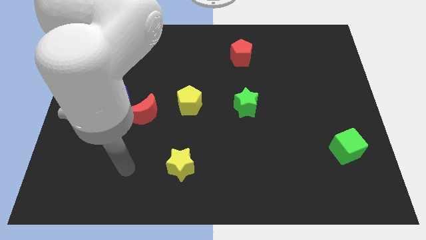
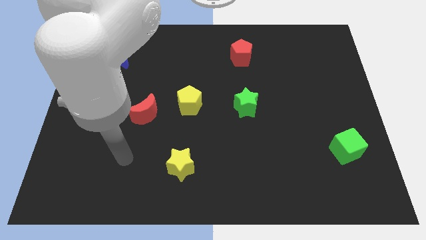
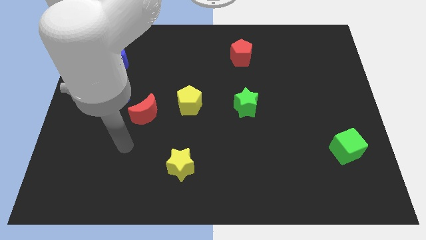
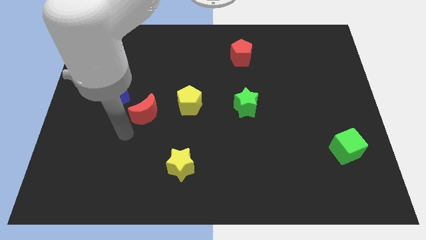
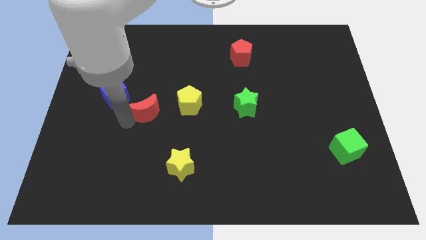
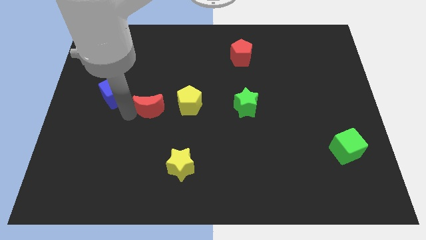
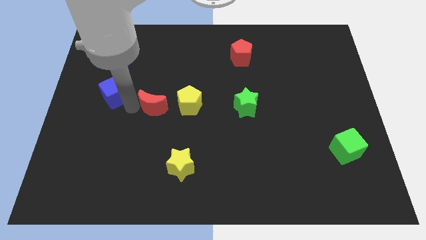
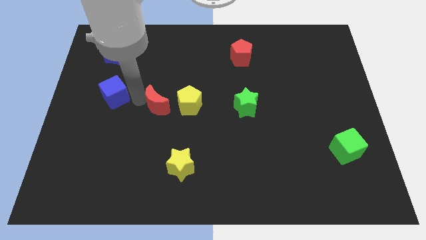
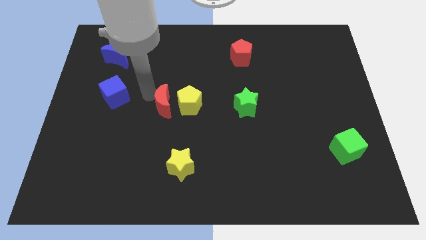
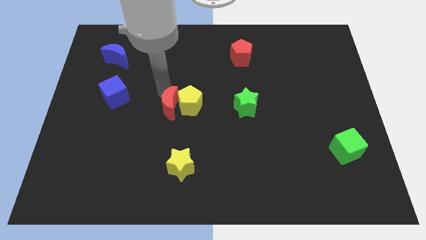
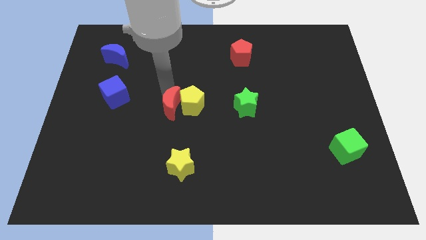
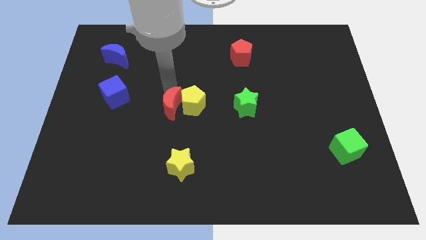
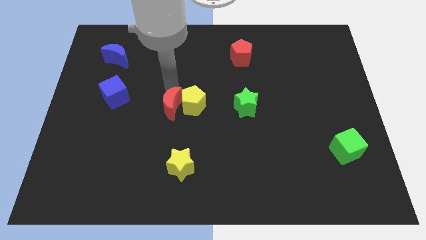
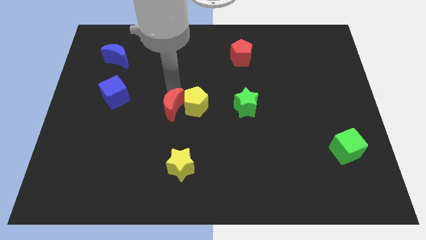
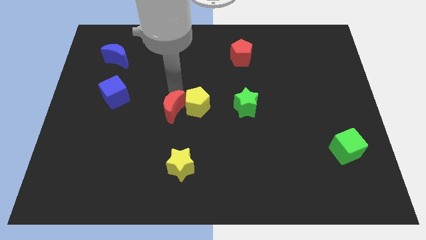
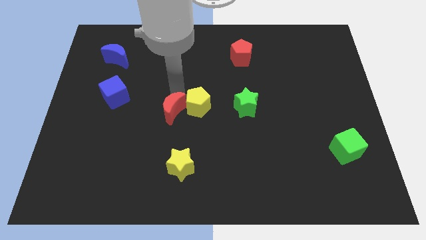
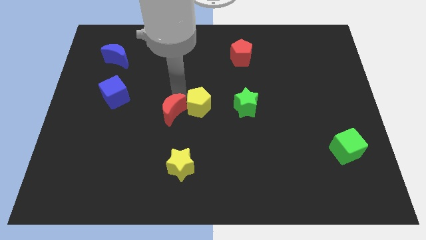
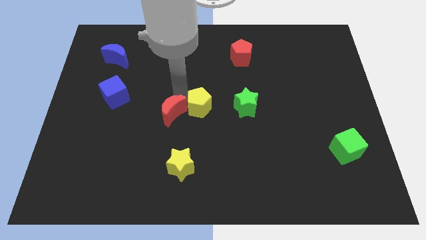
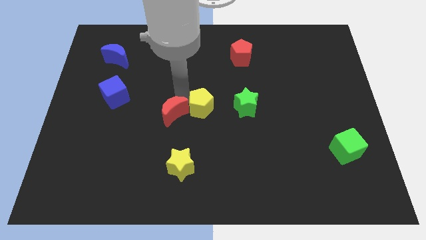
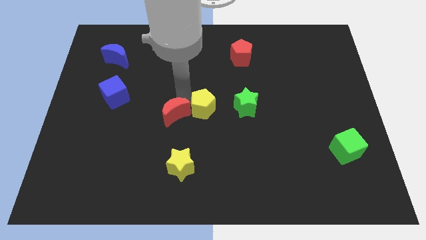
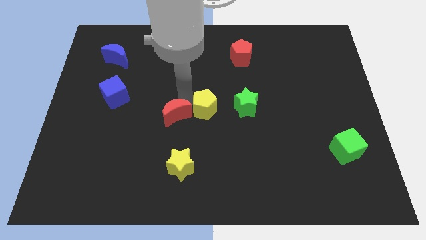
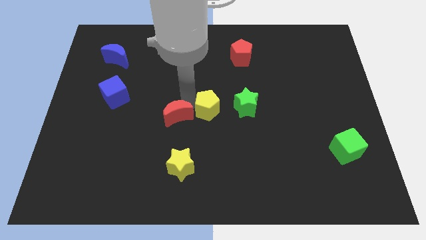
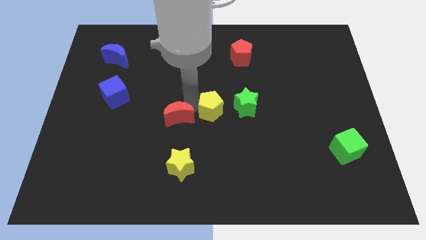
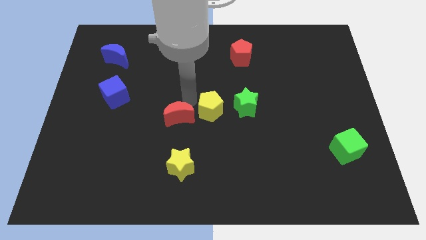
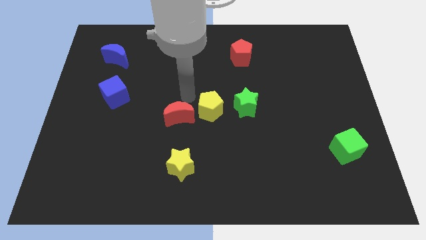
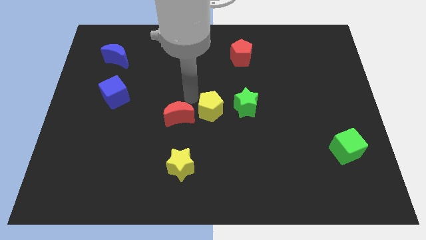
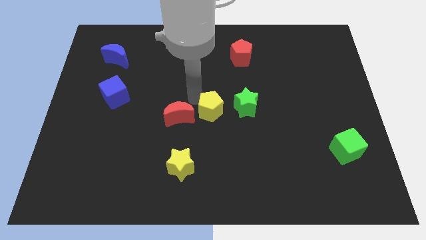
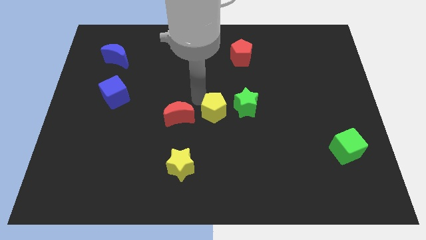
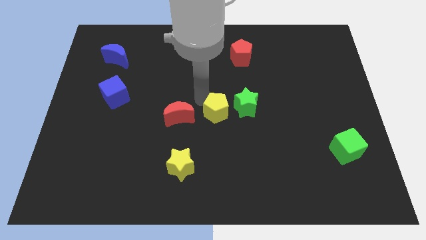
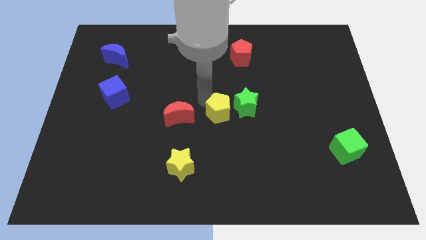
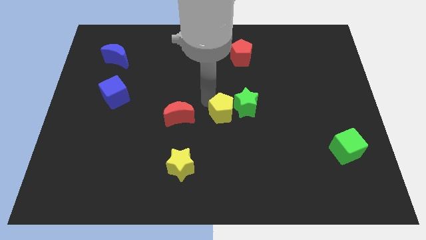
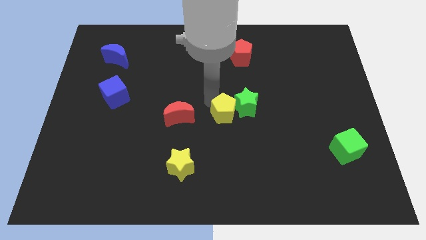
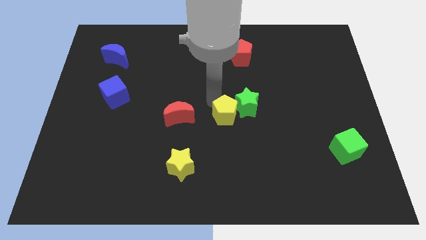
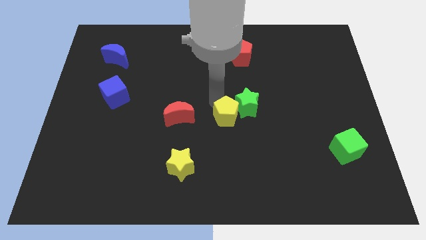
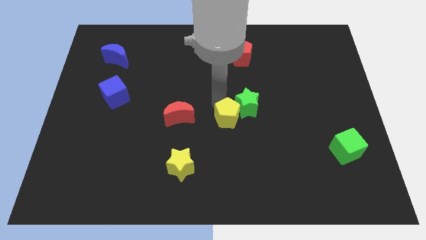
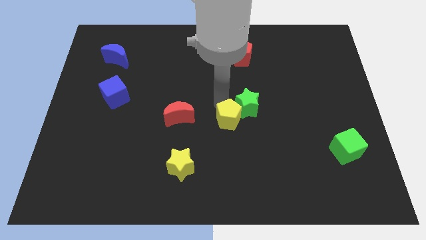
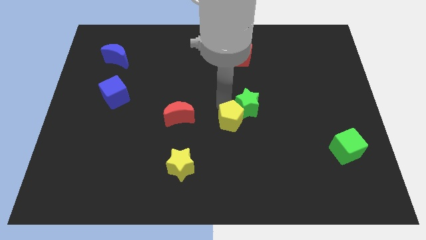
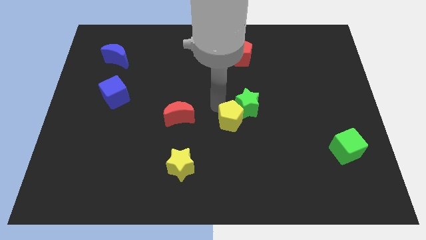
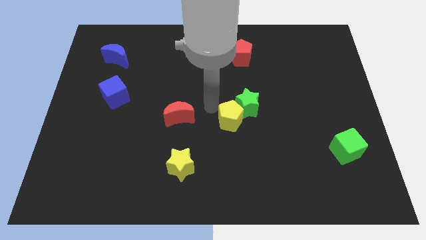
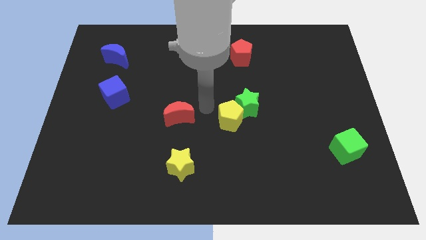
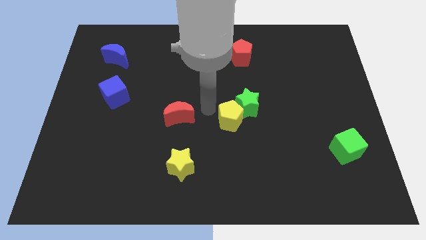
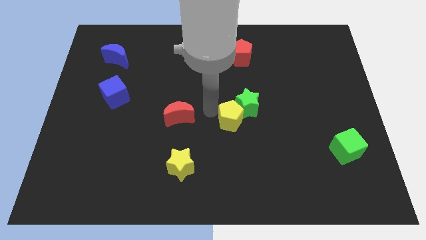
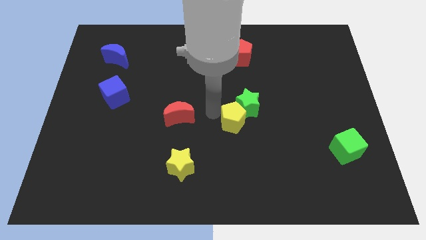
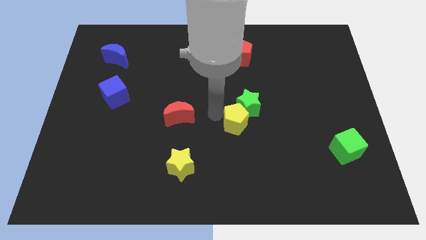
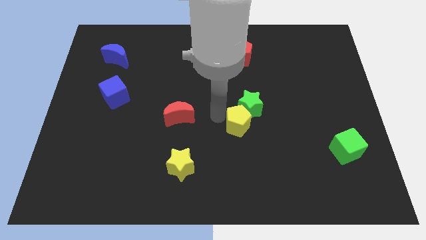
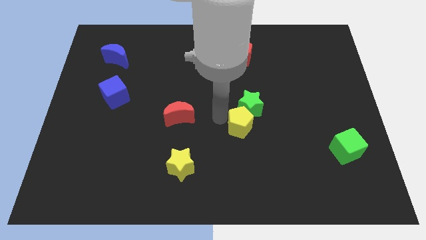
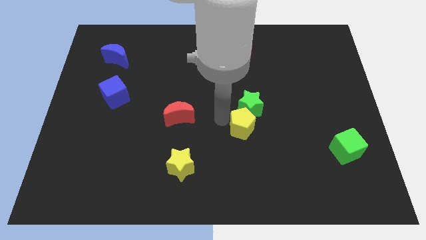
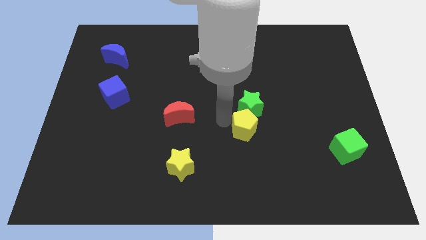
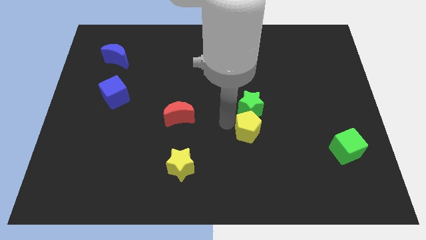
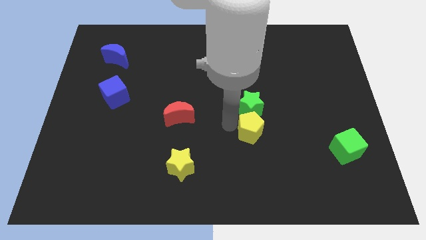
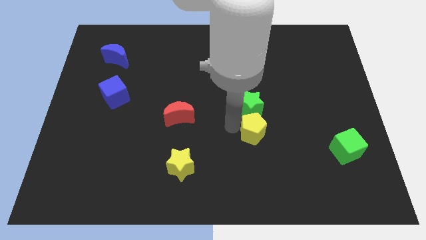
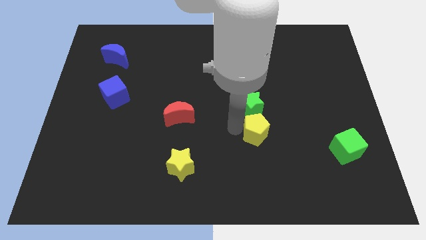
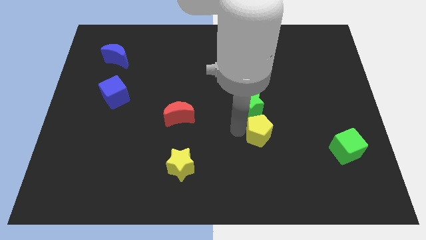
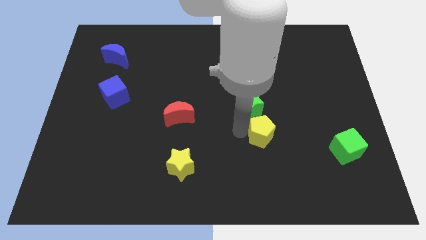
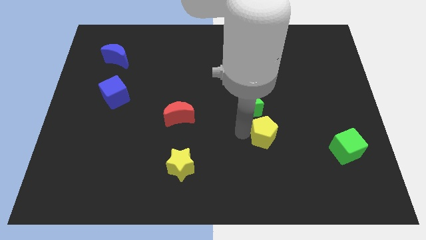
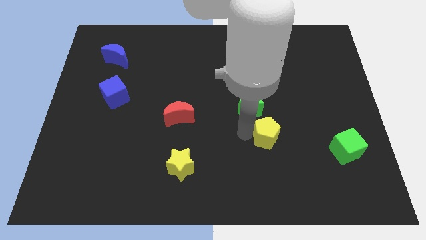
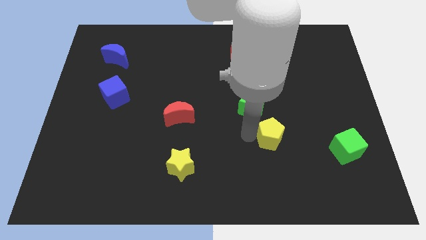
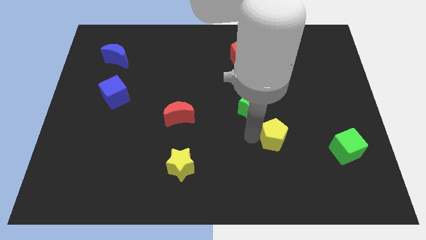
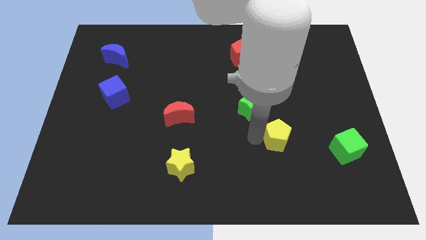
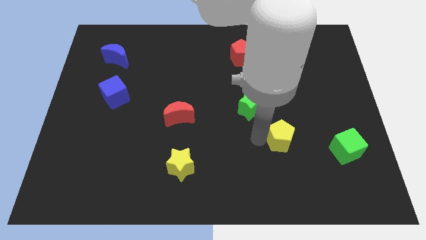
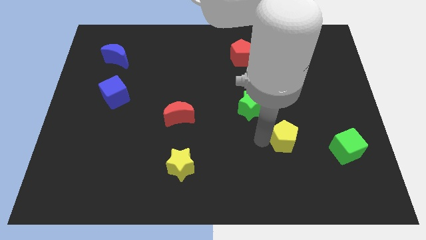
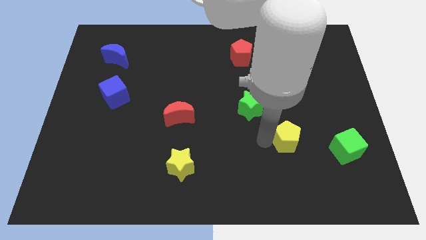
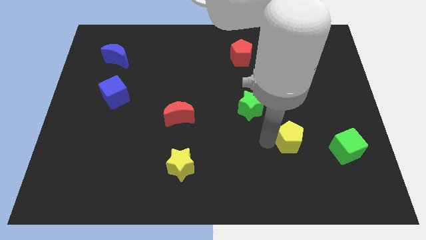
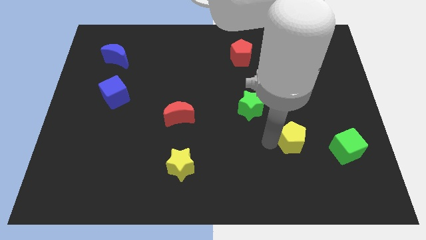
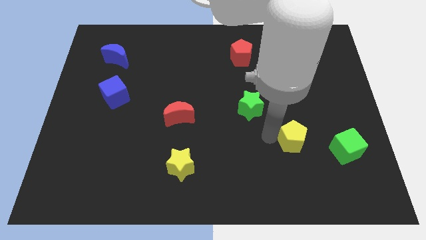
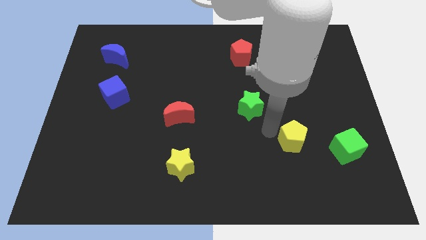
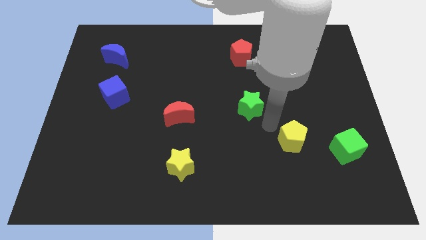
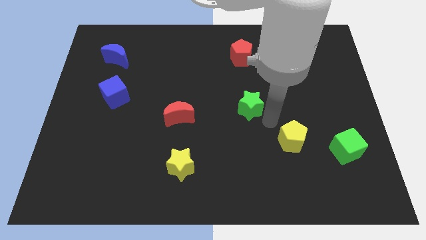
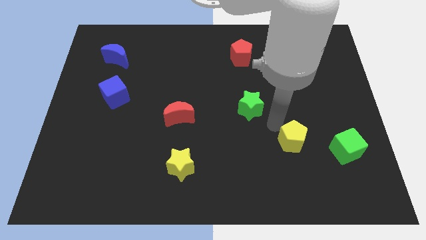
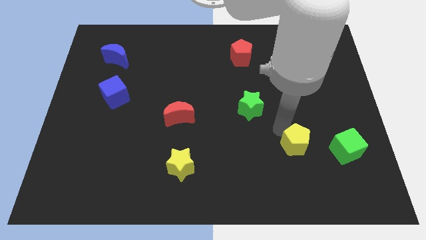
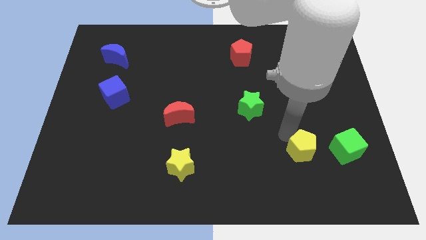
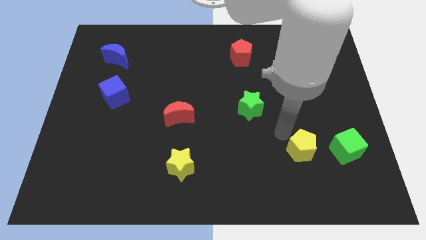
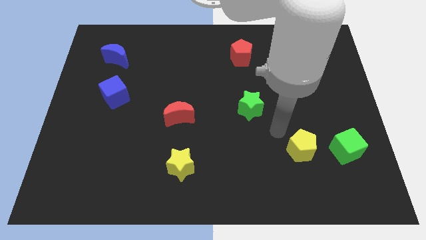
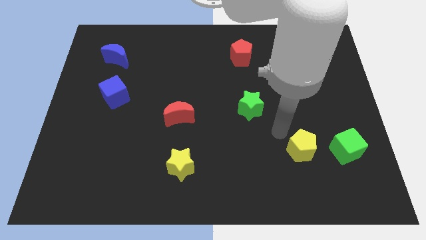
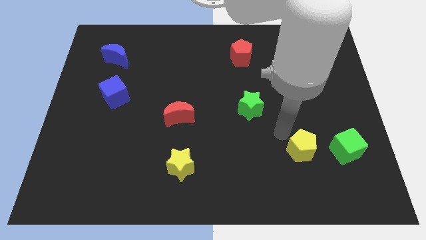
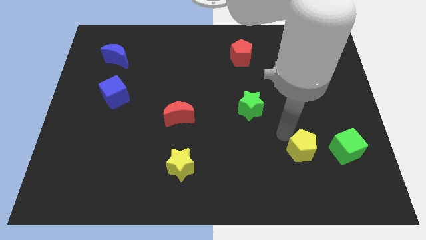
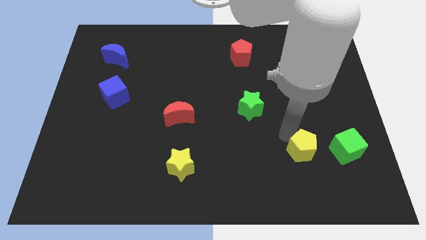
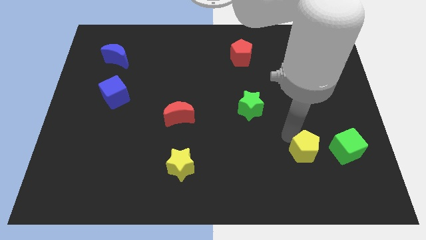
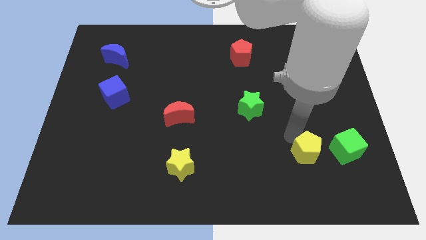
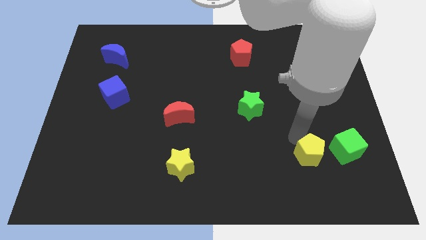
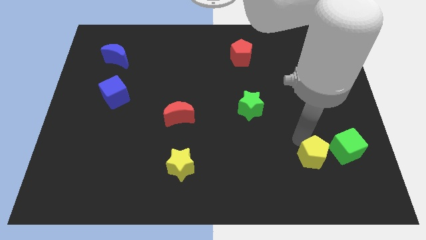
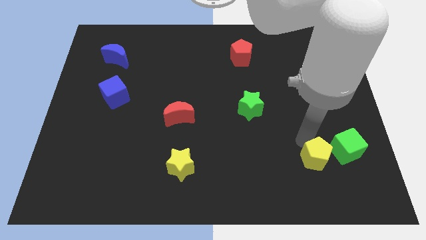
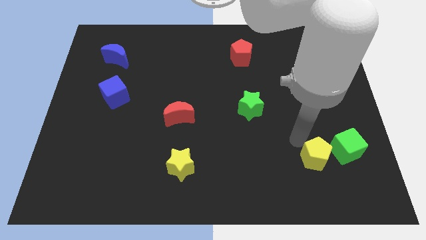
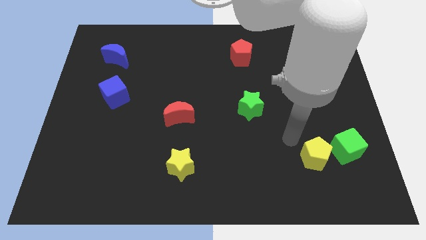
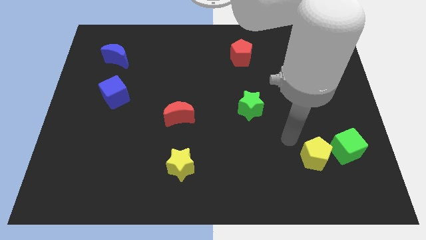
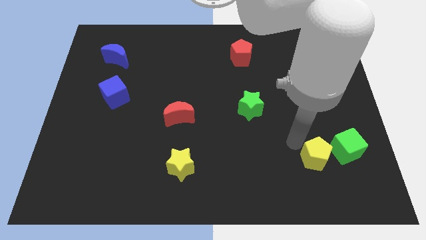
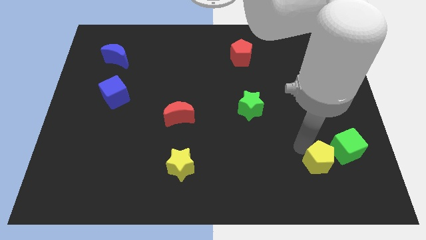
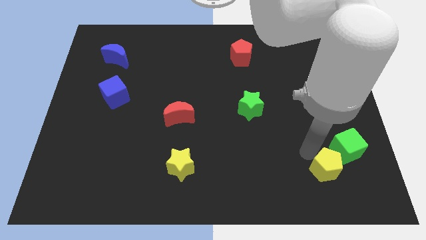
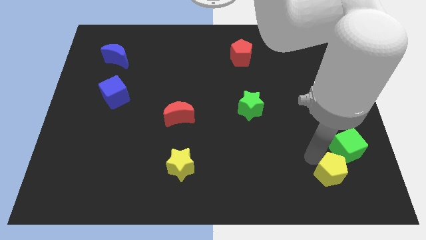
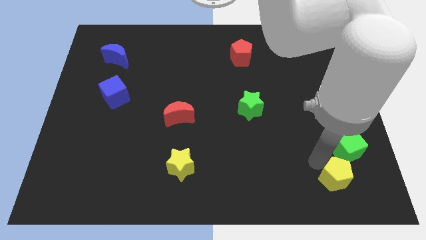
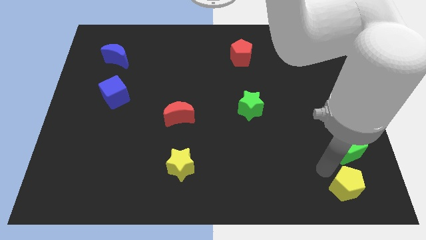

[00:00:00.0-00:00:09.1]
put the yellow pentagon to the lower right corner
